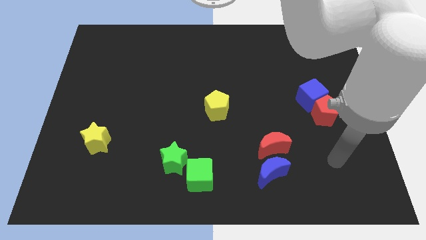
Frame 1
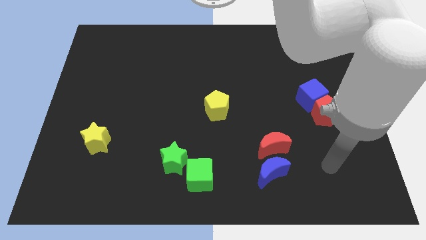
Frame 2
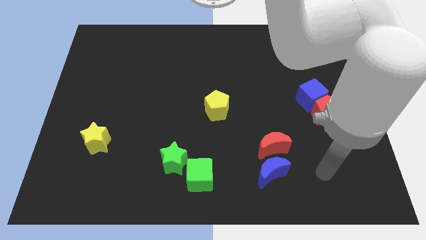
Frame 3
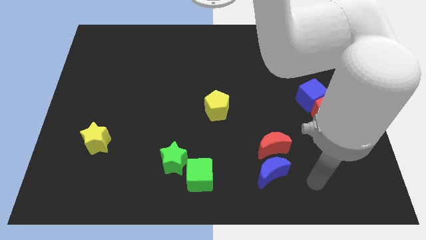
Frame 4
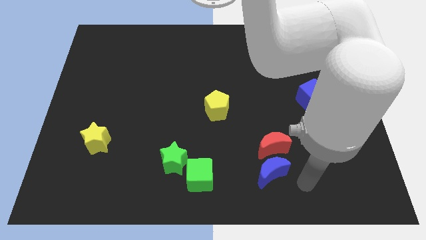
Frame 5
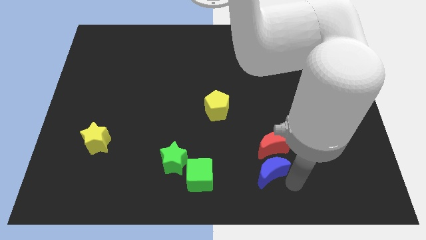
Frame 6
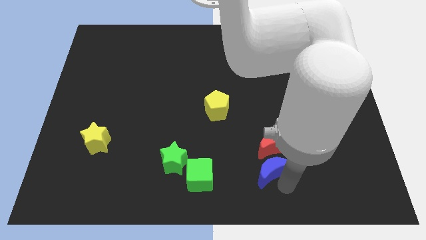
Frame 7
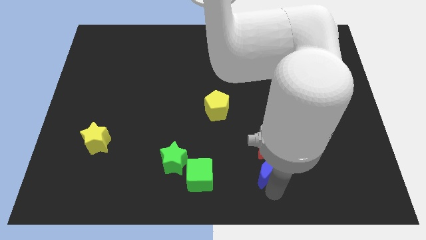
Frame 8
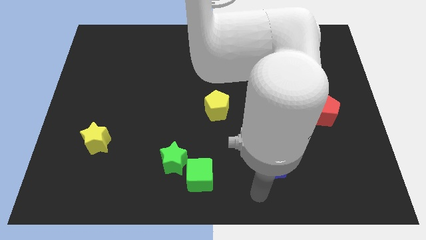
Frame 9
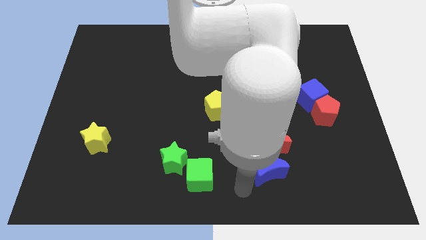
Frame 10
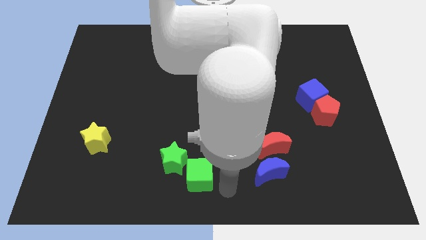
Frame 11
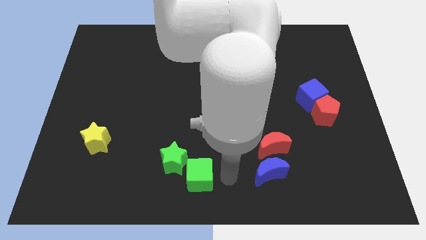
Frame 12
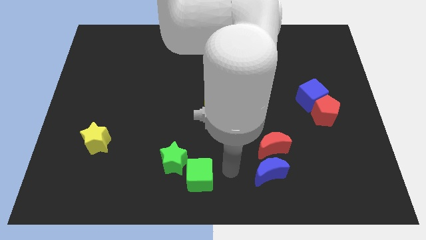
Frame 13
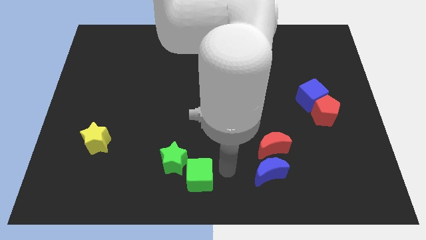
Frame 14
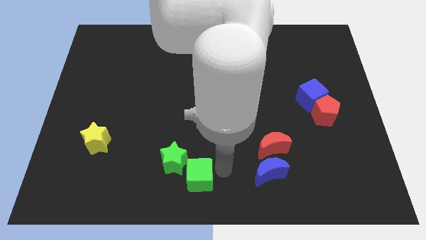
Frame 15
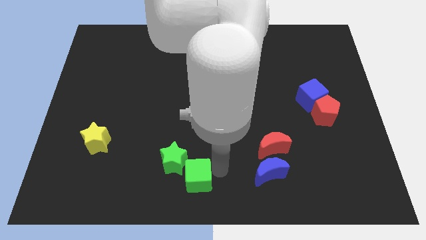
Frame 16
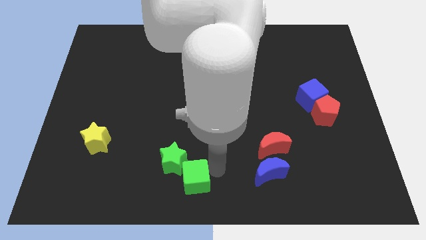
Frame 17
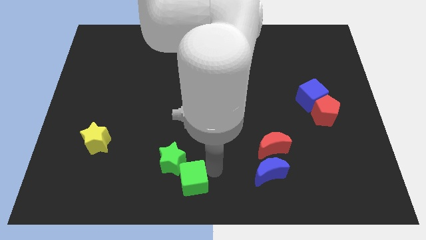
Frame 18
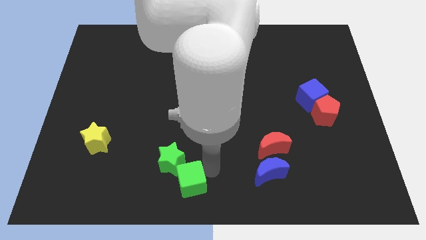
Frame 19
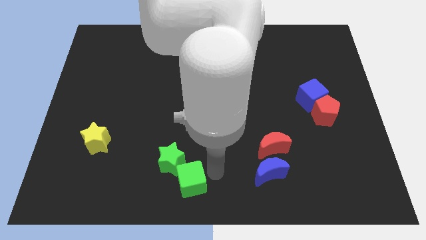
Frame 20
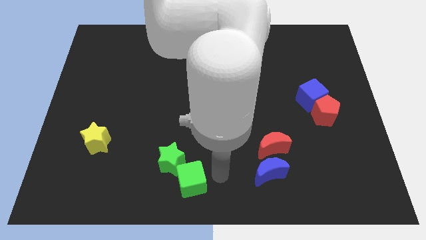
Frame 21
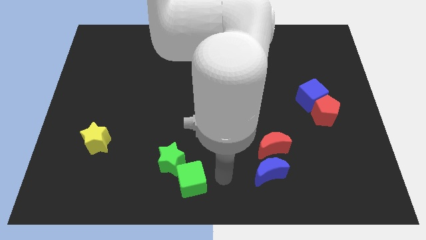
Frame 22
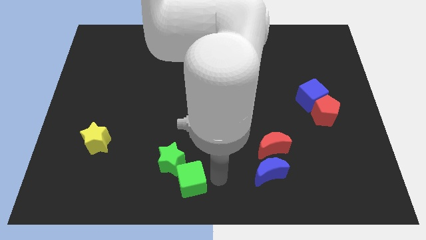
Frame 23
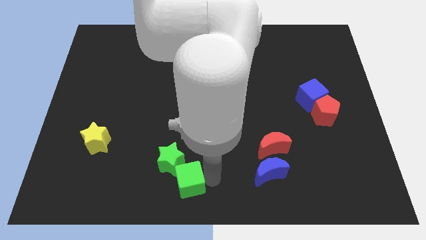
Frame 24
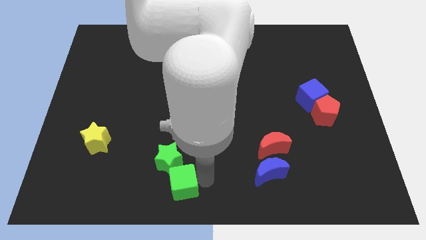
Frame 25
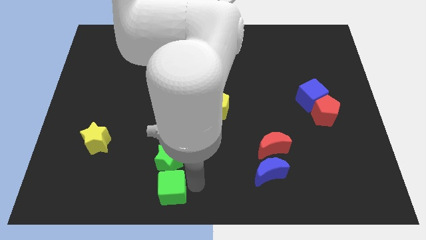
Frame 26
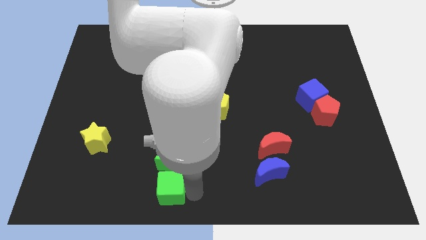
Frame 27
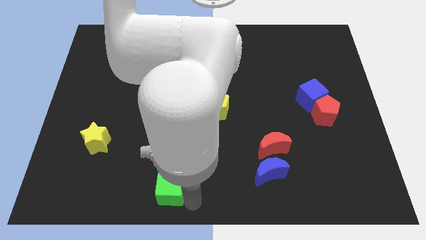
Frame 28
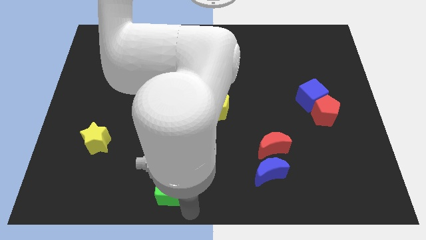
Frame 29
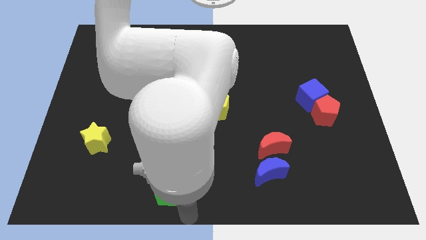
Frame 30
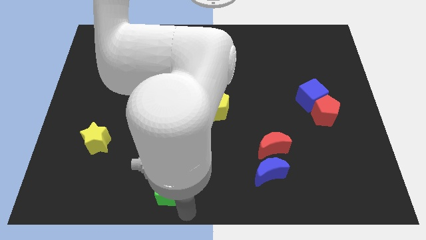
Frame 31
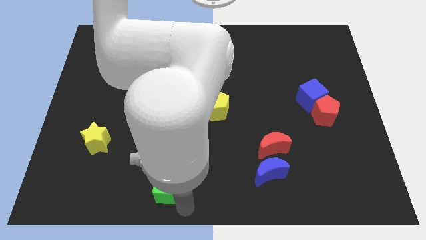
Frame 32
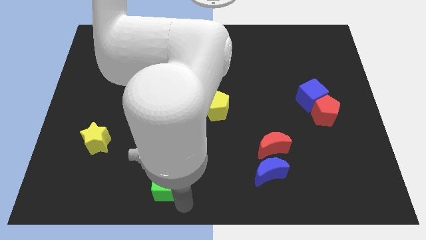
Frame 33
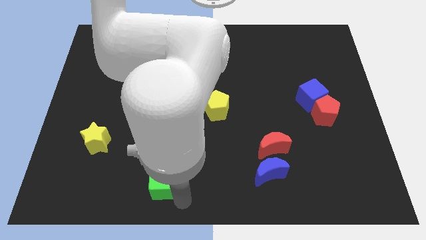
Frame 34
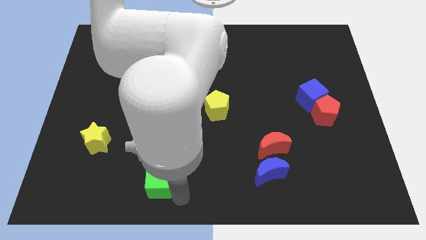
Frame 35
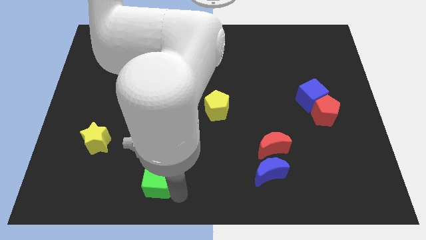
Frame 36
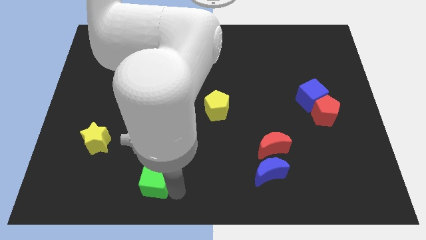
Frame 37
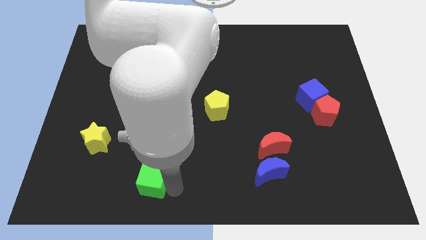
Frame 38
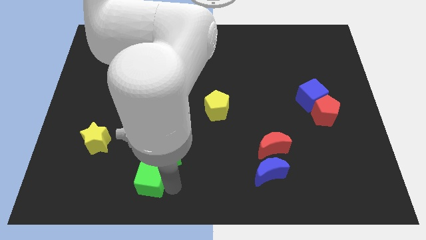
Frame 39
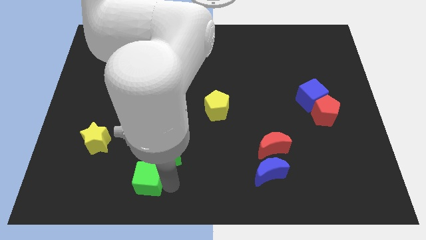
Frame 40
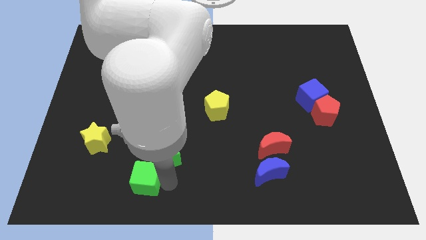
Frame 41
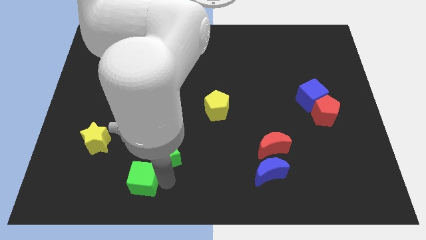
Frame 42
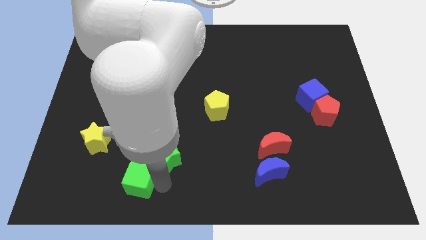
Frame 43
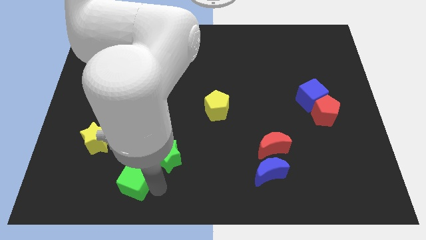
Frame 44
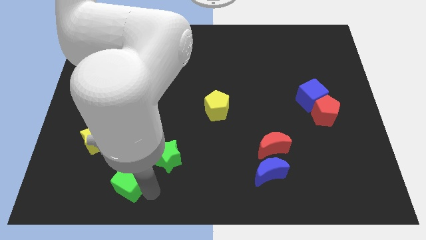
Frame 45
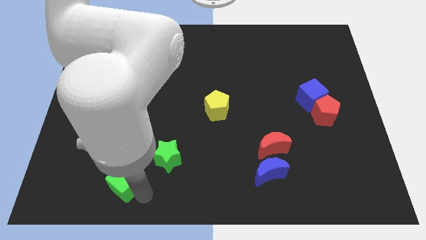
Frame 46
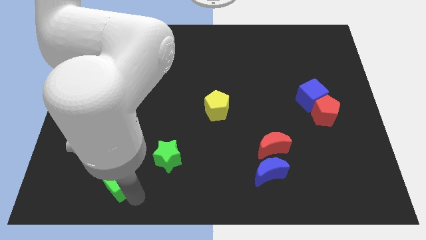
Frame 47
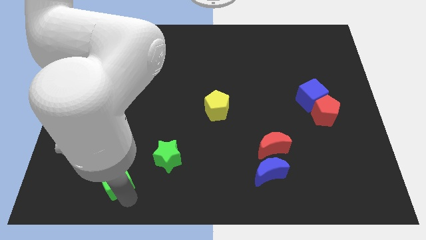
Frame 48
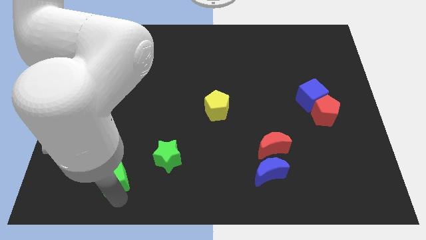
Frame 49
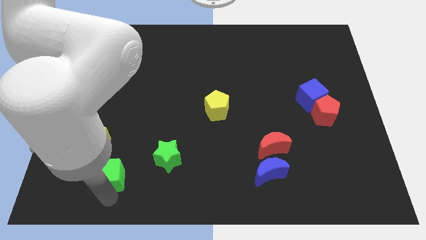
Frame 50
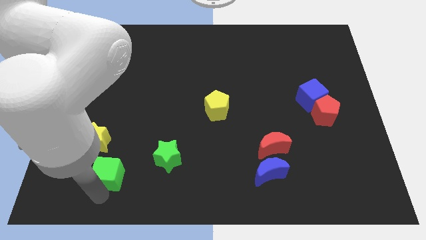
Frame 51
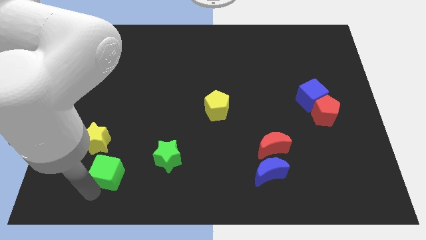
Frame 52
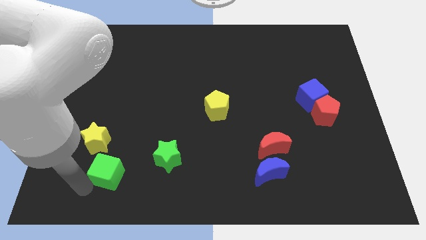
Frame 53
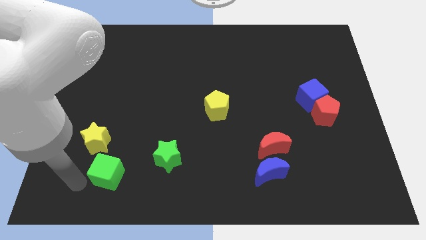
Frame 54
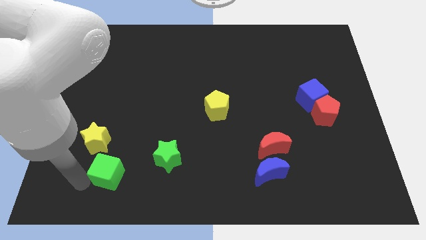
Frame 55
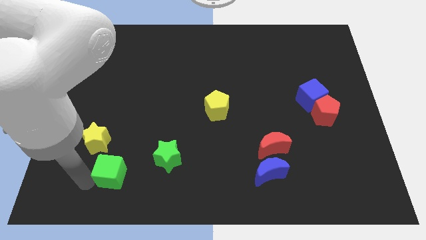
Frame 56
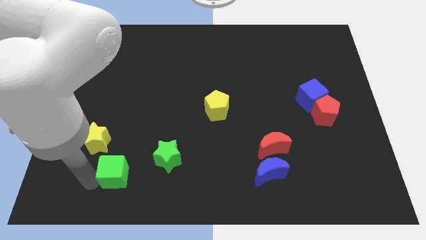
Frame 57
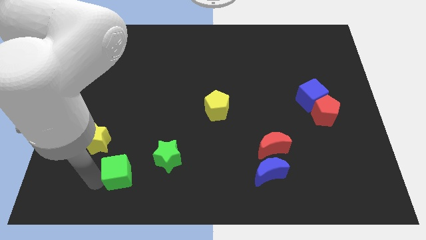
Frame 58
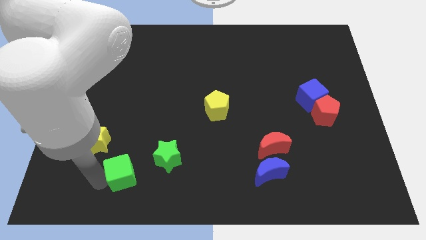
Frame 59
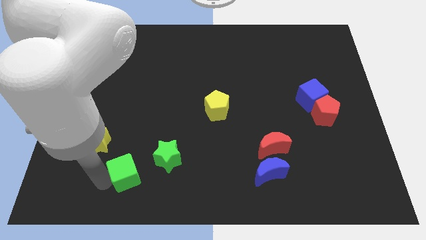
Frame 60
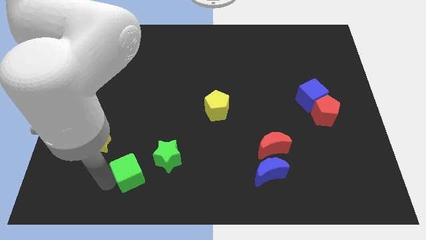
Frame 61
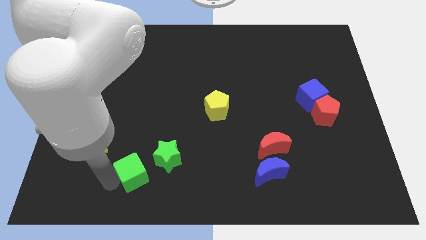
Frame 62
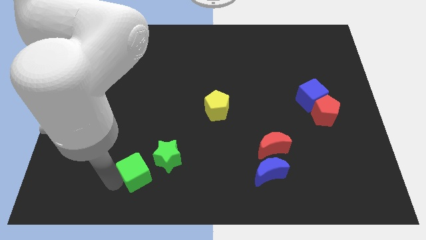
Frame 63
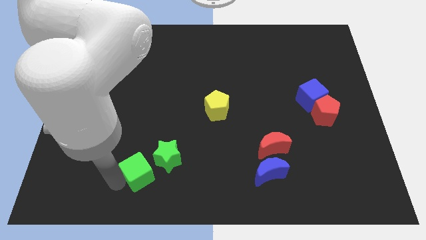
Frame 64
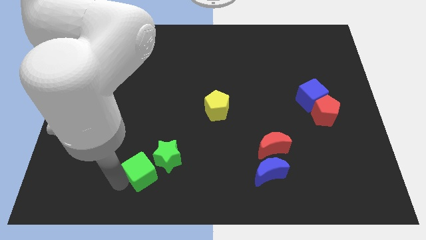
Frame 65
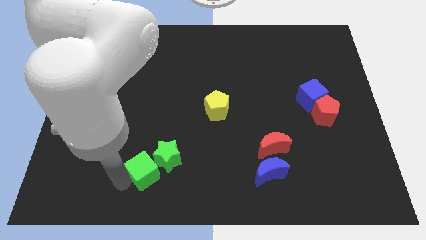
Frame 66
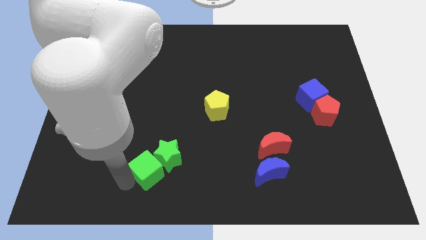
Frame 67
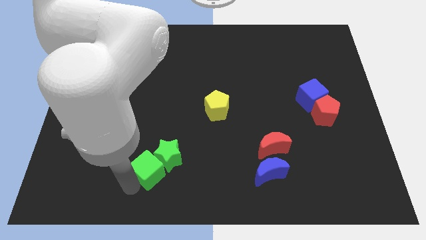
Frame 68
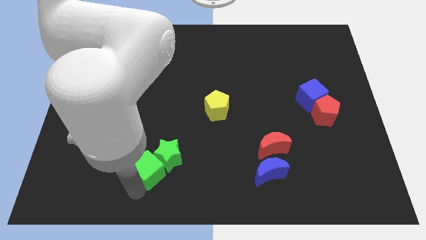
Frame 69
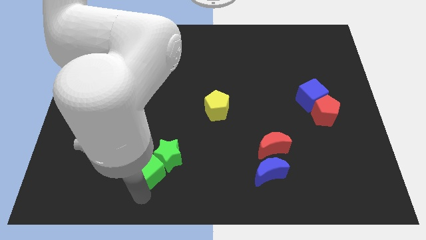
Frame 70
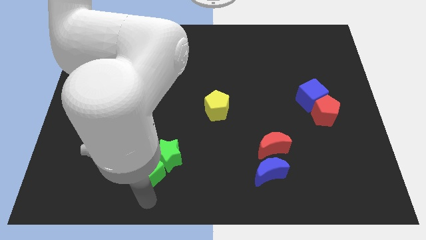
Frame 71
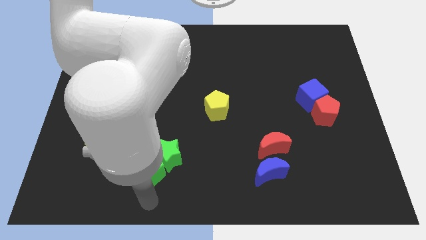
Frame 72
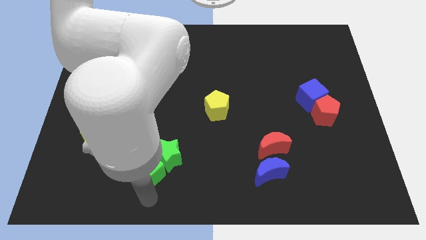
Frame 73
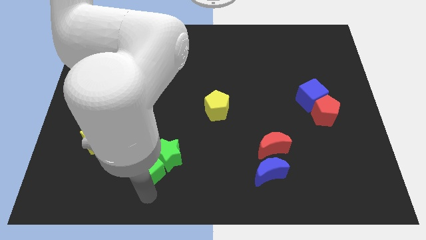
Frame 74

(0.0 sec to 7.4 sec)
push the green cube somewhat upwards and then left

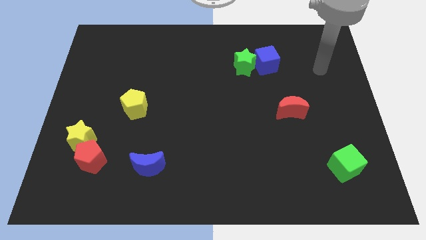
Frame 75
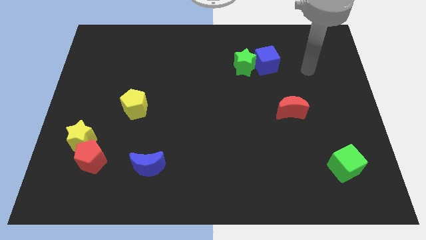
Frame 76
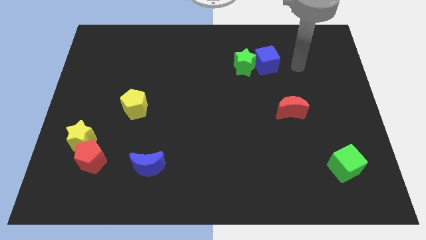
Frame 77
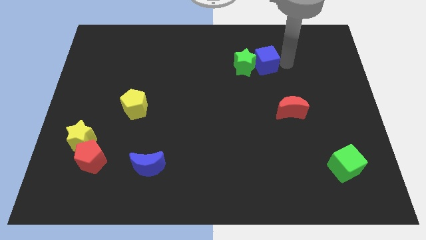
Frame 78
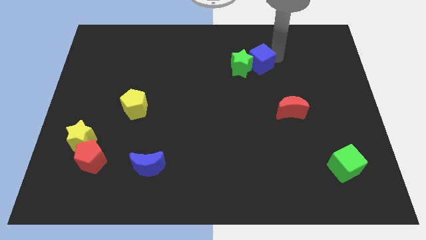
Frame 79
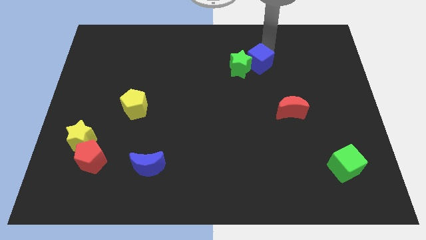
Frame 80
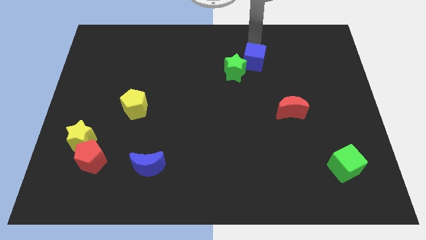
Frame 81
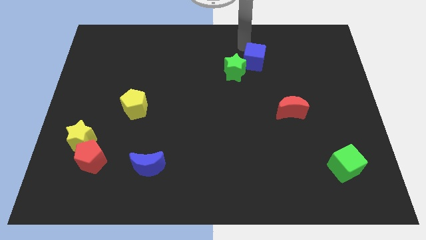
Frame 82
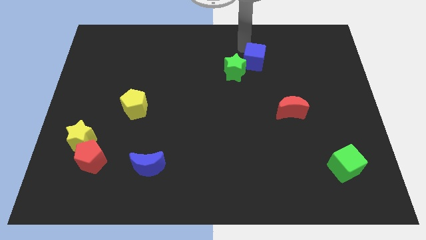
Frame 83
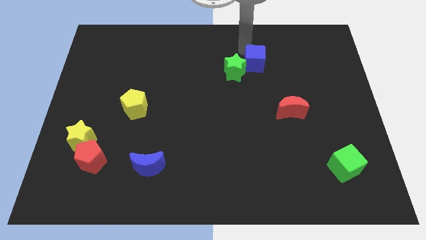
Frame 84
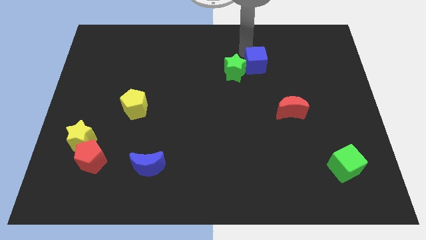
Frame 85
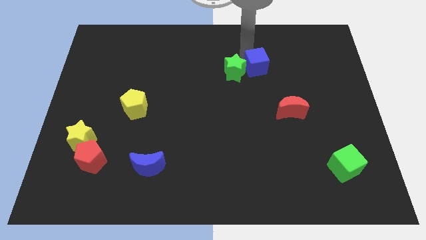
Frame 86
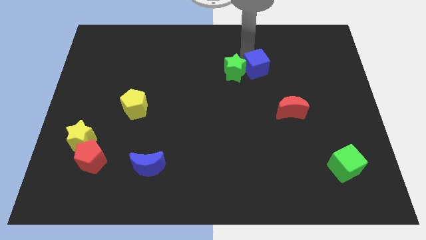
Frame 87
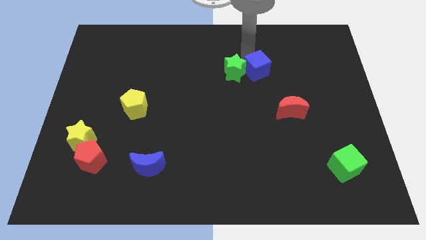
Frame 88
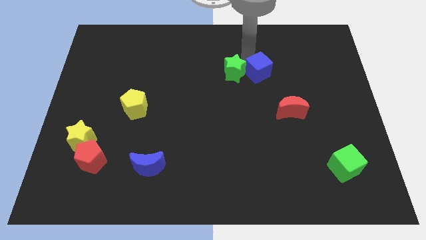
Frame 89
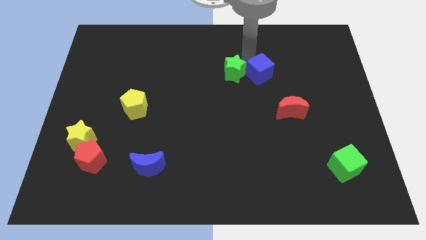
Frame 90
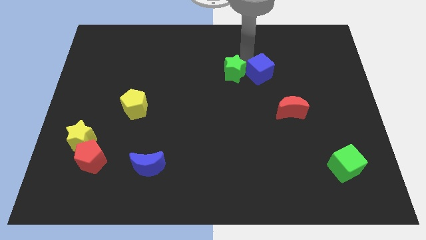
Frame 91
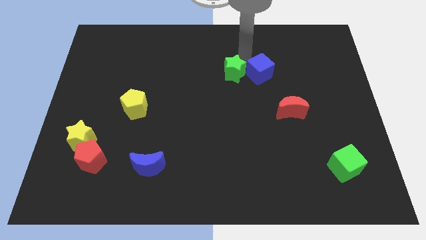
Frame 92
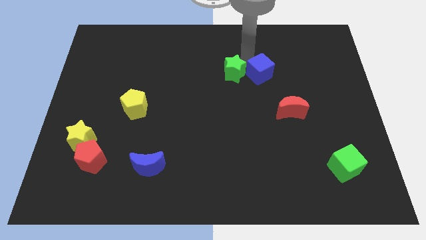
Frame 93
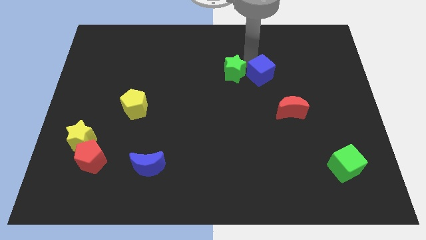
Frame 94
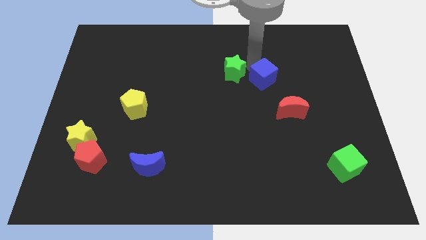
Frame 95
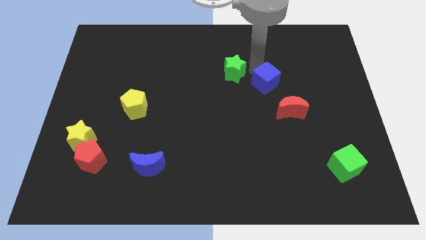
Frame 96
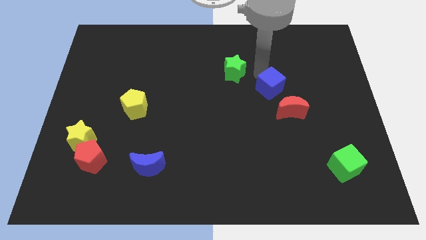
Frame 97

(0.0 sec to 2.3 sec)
push the blue cube down slightly
